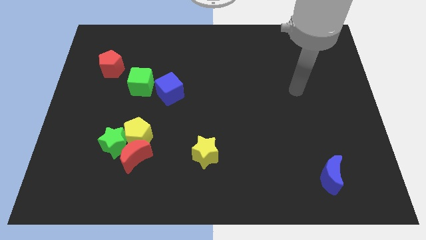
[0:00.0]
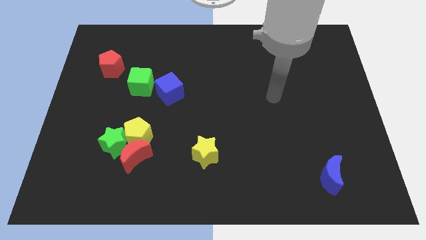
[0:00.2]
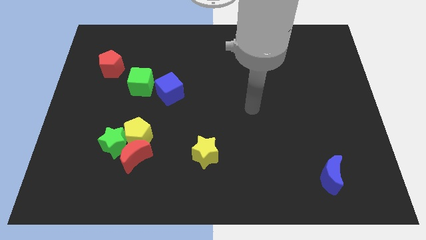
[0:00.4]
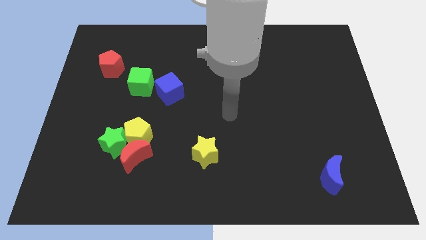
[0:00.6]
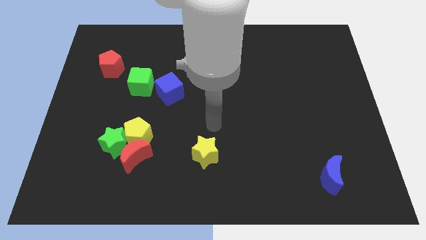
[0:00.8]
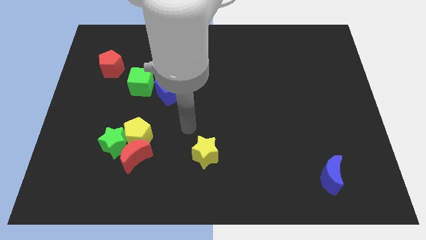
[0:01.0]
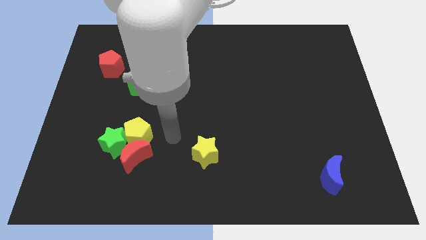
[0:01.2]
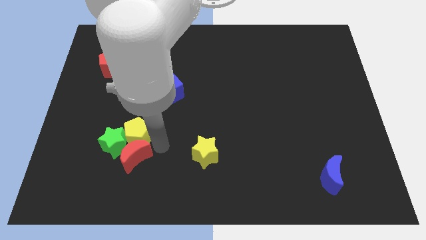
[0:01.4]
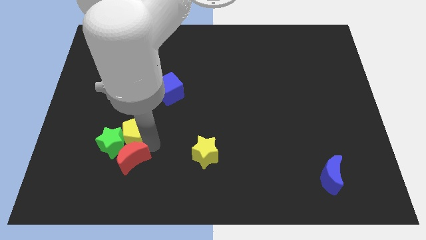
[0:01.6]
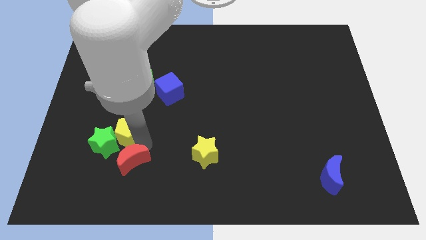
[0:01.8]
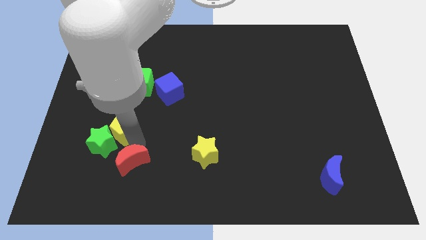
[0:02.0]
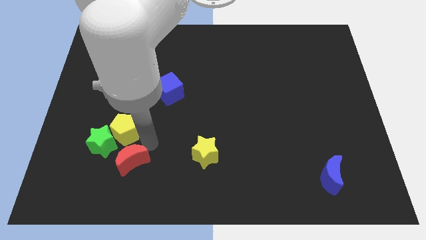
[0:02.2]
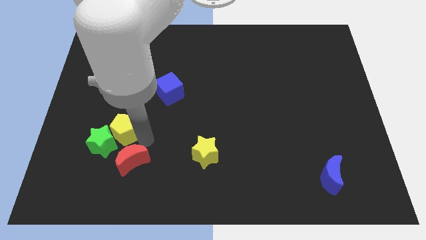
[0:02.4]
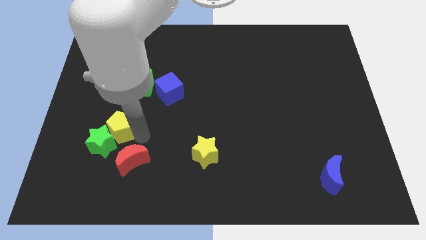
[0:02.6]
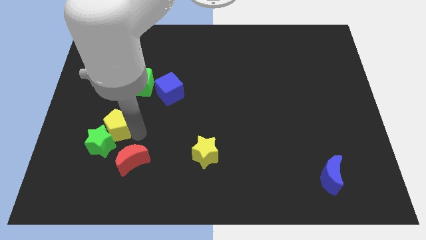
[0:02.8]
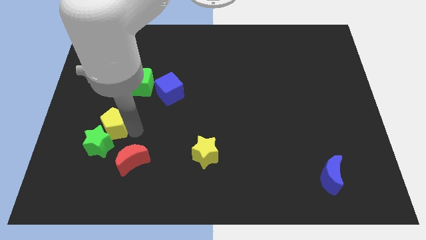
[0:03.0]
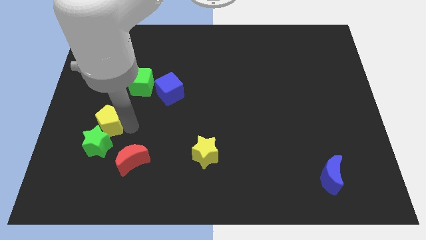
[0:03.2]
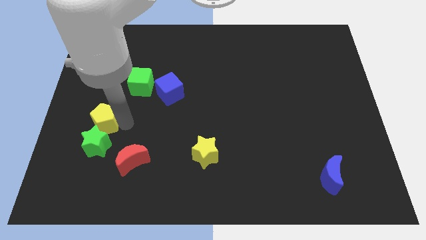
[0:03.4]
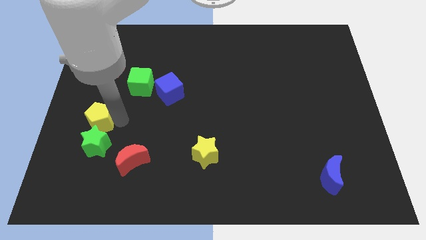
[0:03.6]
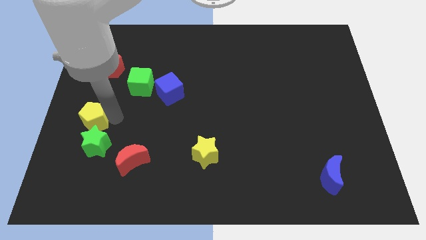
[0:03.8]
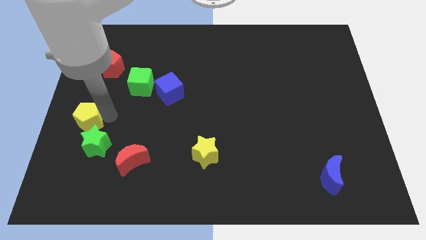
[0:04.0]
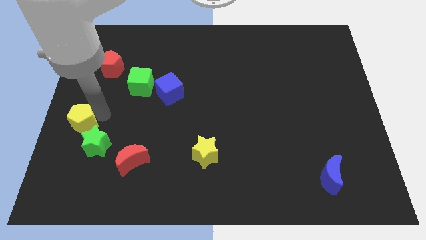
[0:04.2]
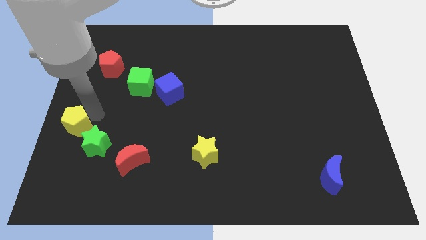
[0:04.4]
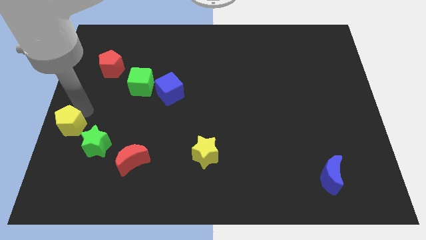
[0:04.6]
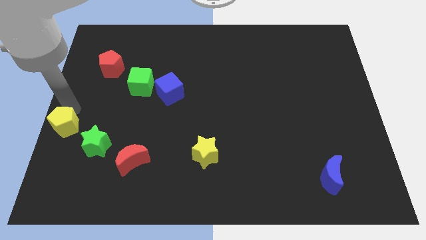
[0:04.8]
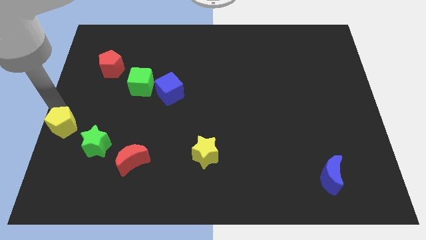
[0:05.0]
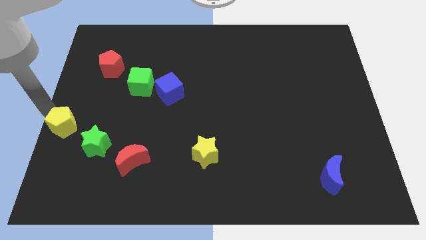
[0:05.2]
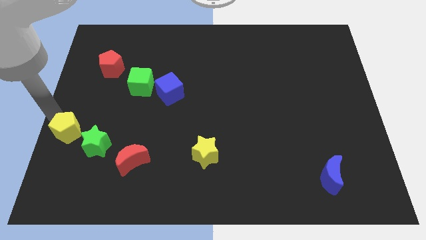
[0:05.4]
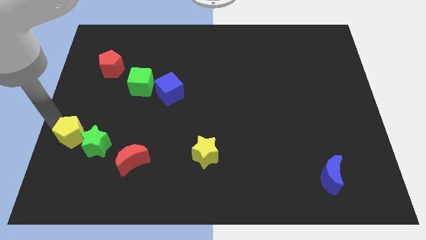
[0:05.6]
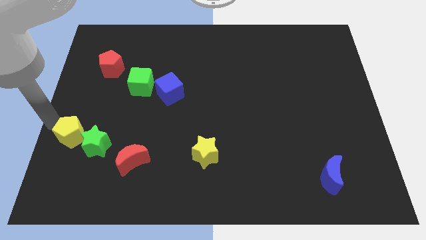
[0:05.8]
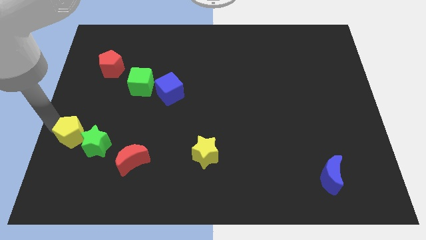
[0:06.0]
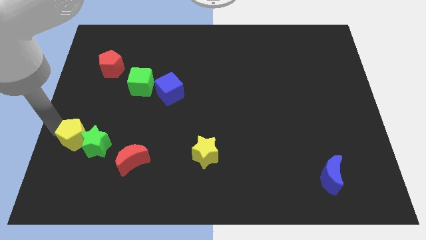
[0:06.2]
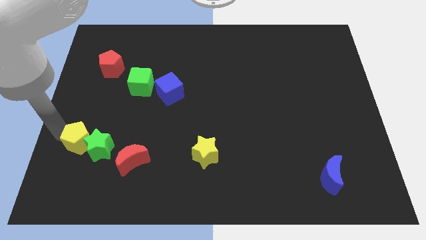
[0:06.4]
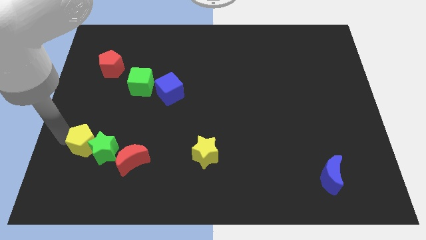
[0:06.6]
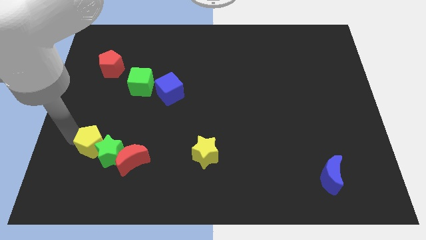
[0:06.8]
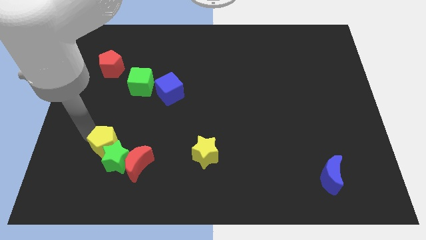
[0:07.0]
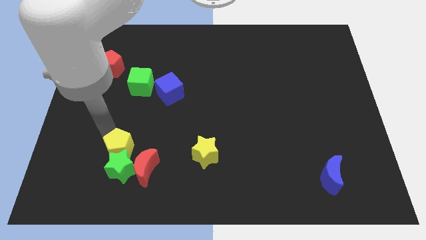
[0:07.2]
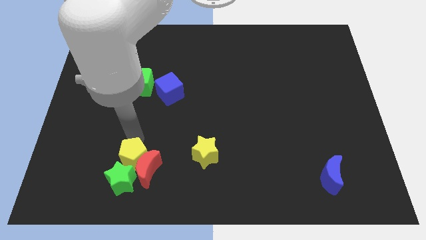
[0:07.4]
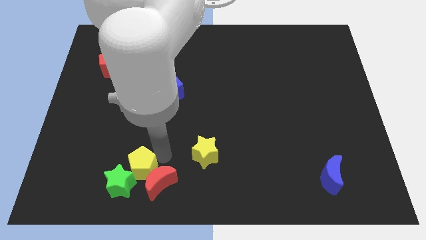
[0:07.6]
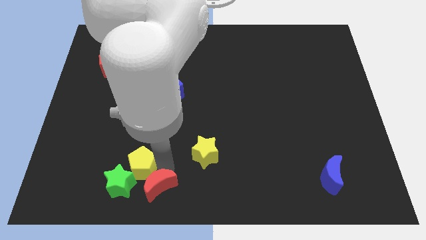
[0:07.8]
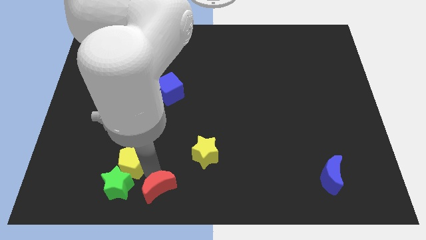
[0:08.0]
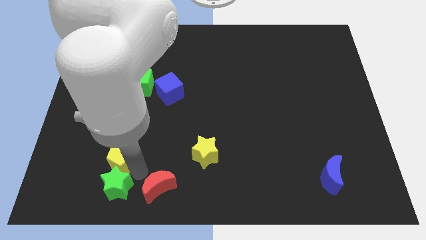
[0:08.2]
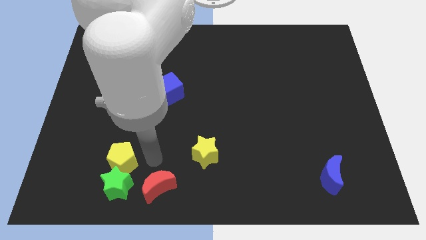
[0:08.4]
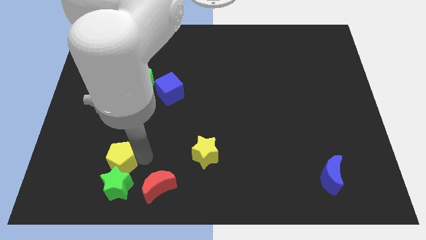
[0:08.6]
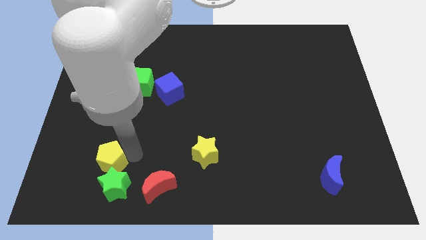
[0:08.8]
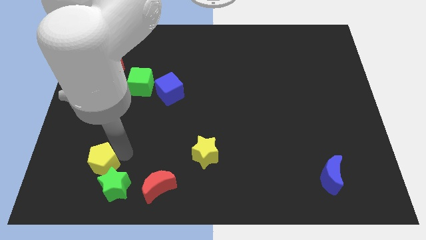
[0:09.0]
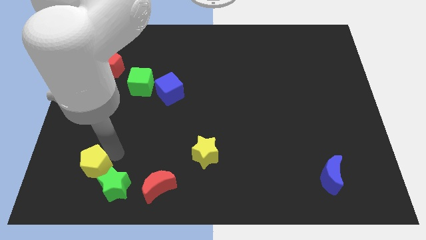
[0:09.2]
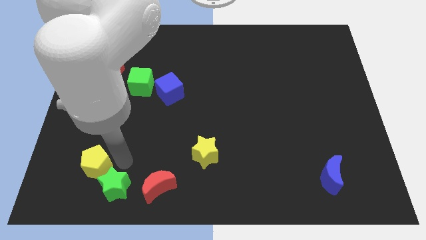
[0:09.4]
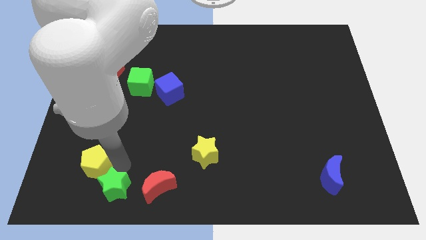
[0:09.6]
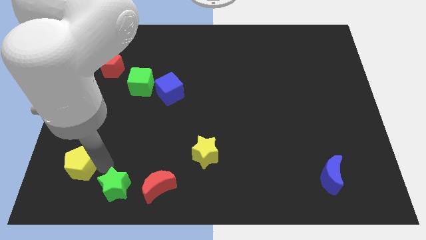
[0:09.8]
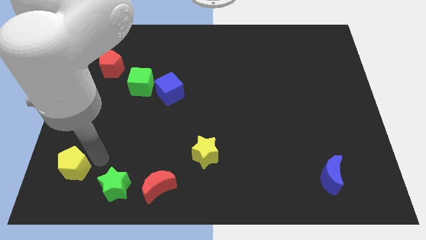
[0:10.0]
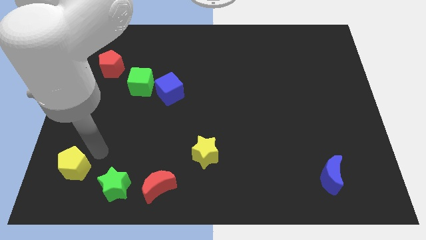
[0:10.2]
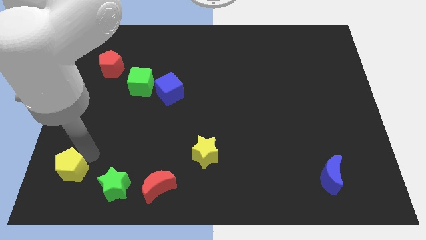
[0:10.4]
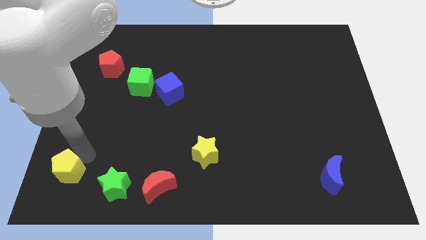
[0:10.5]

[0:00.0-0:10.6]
push the yellow pentagon to the bottom left of the board

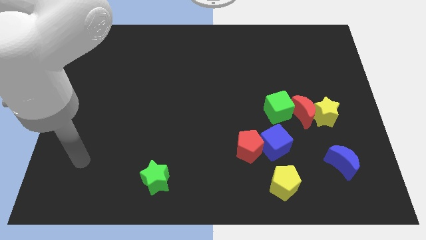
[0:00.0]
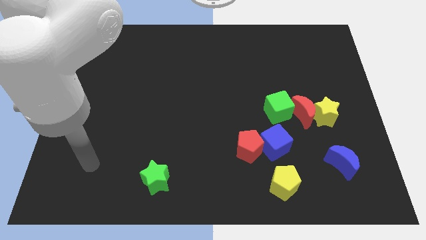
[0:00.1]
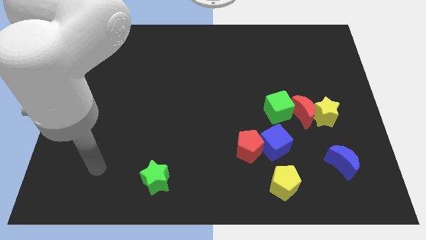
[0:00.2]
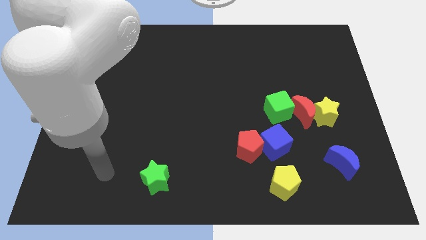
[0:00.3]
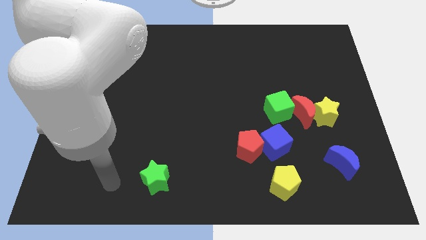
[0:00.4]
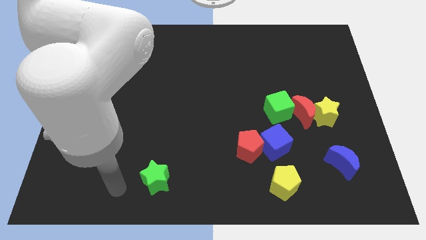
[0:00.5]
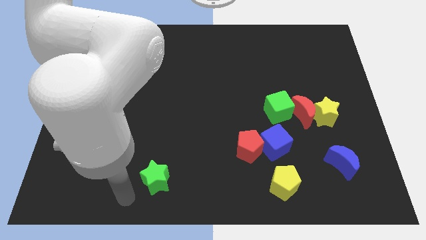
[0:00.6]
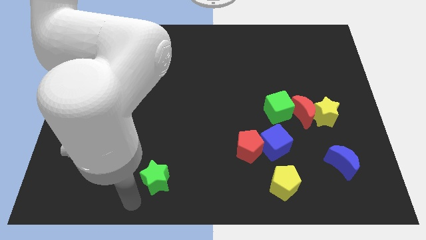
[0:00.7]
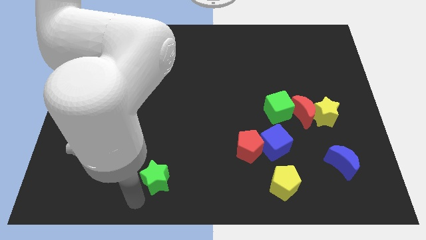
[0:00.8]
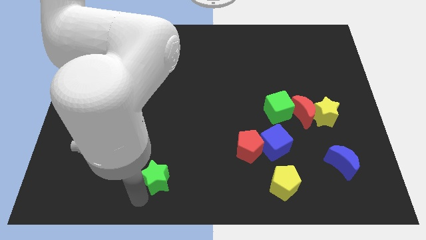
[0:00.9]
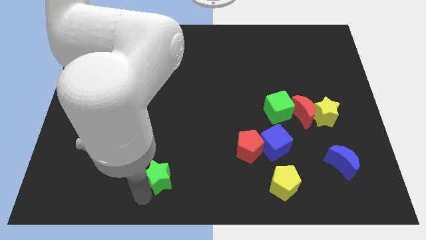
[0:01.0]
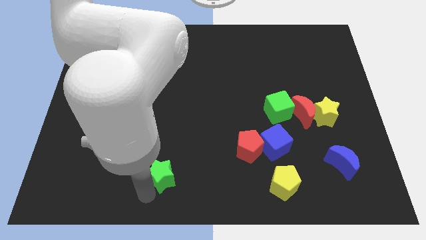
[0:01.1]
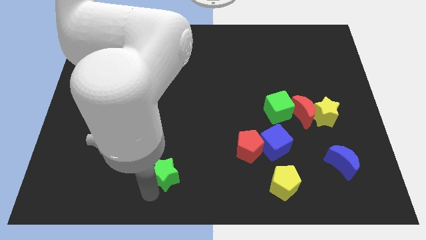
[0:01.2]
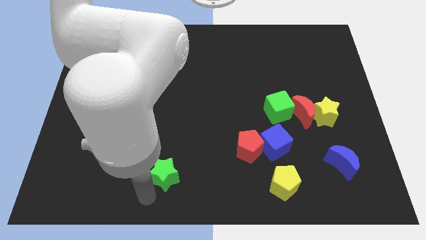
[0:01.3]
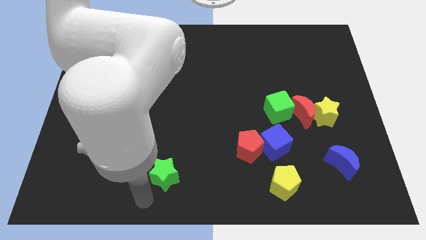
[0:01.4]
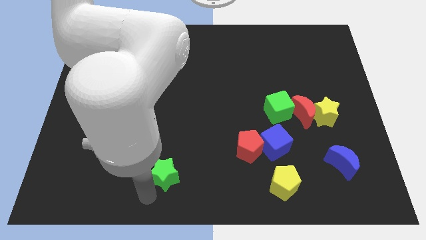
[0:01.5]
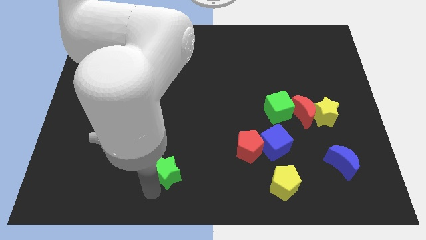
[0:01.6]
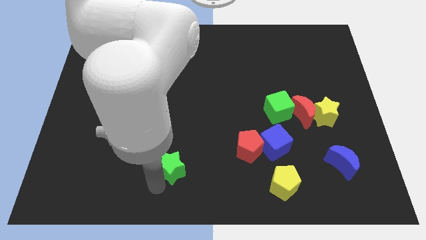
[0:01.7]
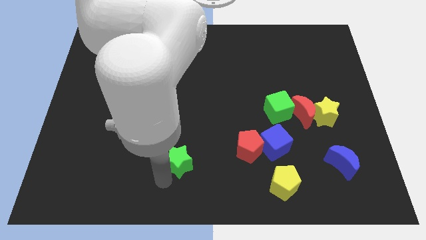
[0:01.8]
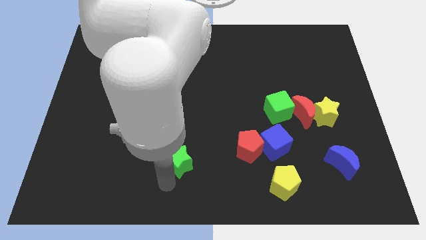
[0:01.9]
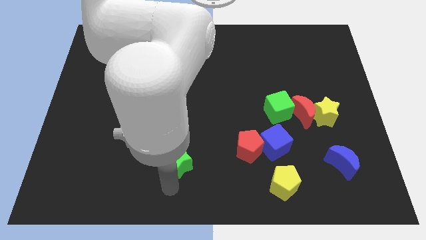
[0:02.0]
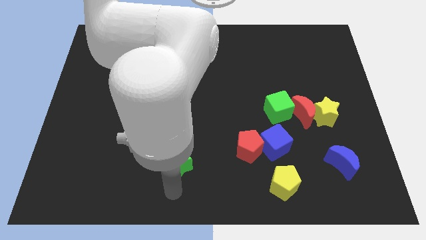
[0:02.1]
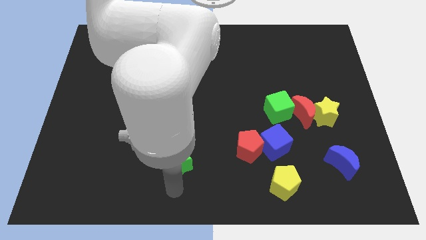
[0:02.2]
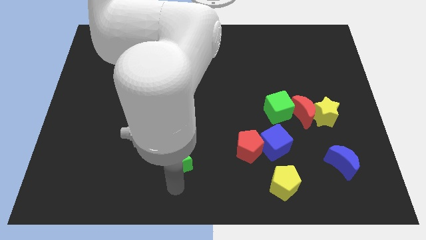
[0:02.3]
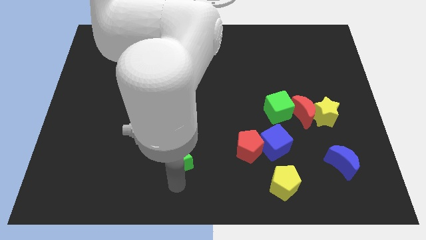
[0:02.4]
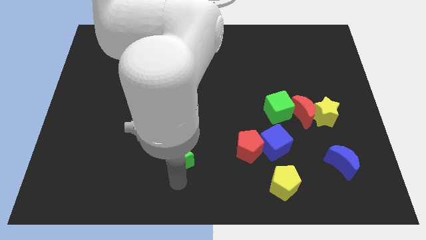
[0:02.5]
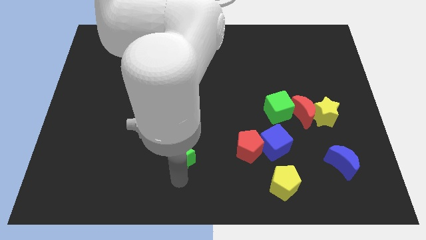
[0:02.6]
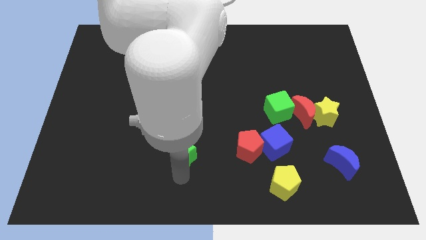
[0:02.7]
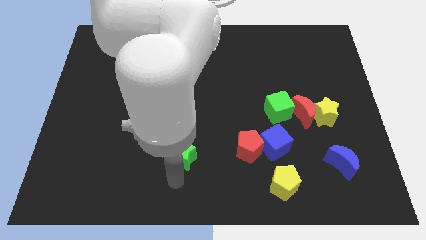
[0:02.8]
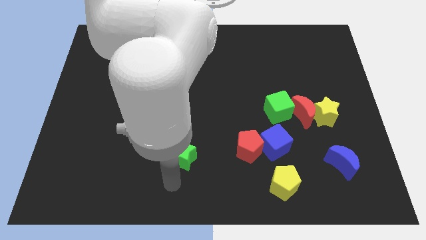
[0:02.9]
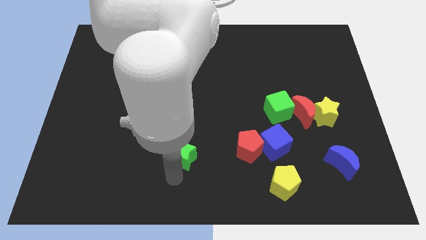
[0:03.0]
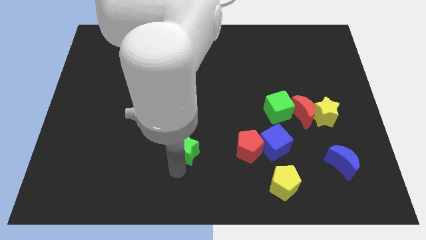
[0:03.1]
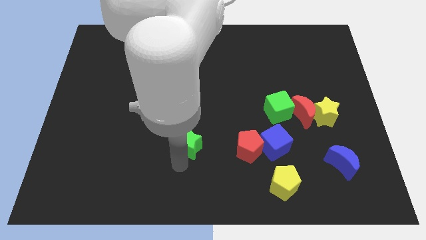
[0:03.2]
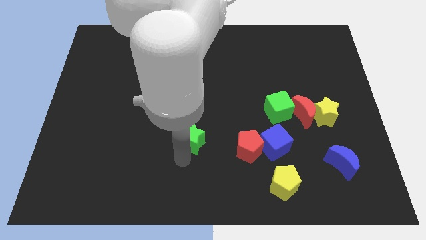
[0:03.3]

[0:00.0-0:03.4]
move the green star to the center
